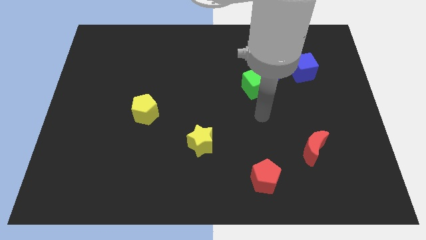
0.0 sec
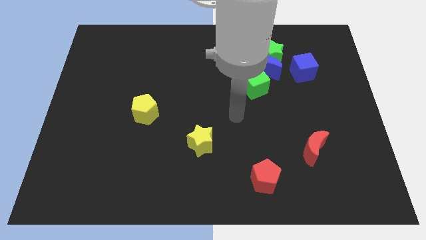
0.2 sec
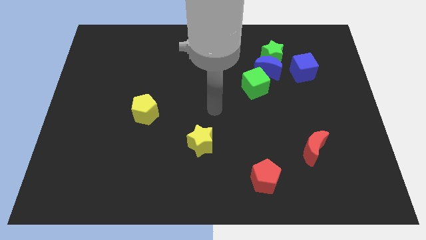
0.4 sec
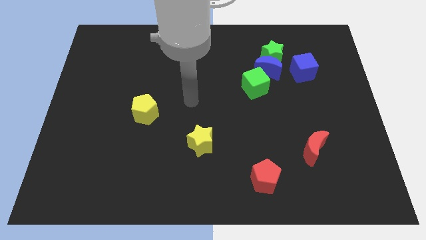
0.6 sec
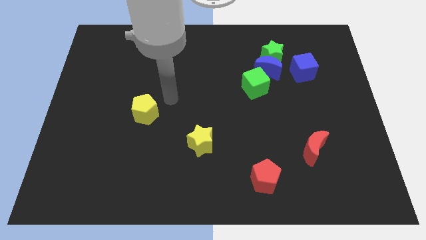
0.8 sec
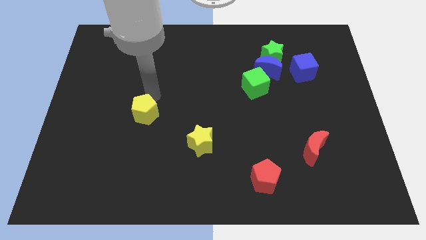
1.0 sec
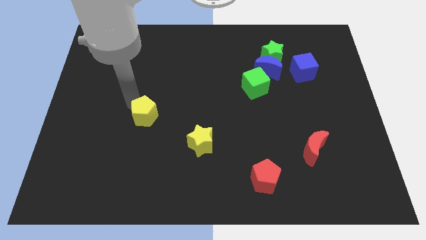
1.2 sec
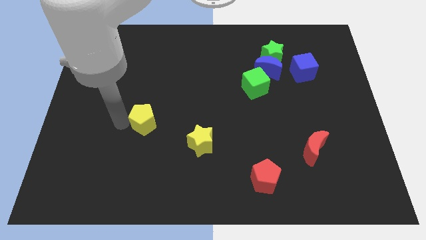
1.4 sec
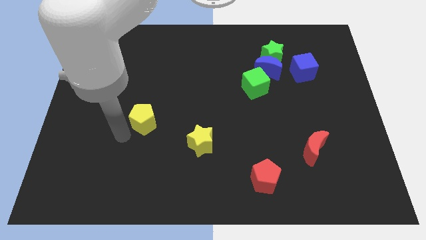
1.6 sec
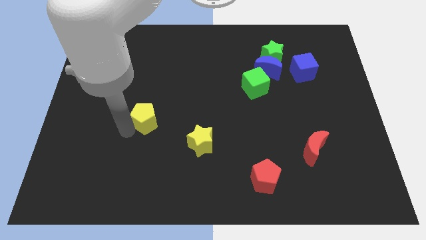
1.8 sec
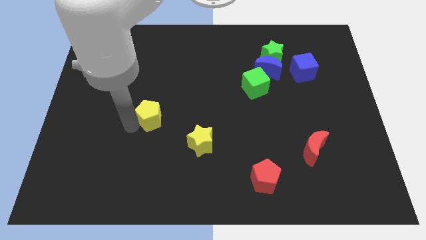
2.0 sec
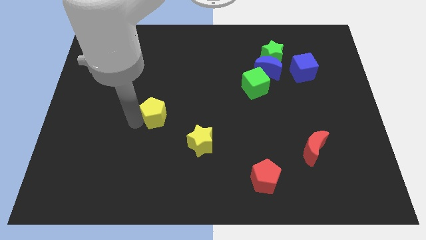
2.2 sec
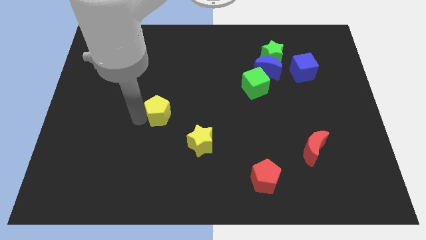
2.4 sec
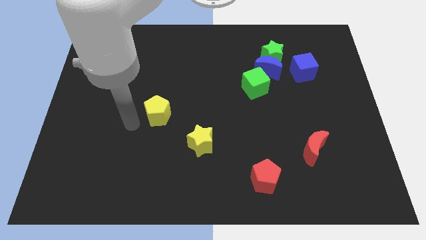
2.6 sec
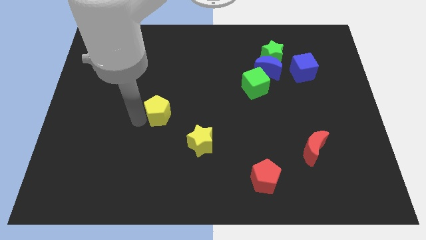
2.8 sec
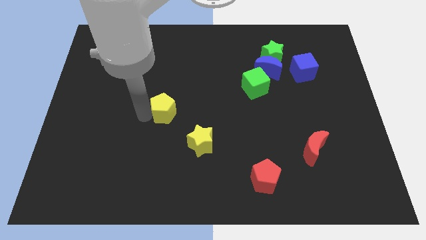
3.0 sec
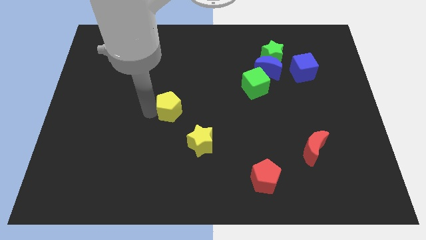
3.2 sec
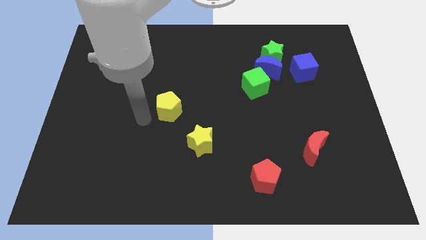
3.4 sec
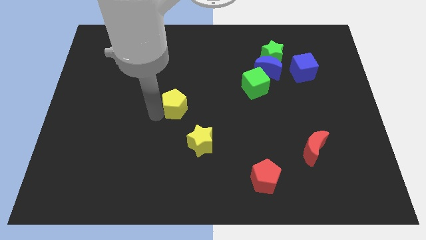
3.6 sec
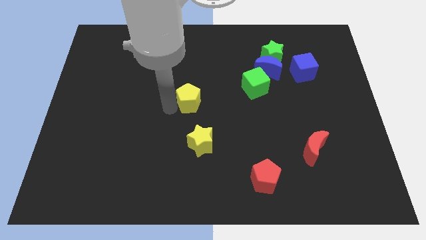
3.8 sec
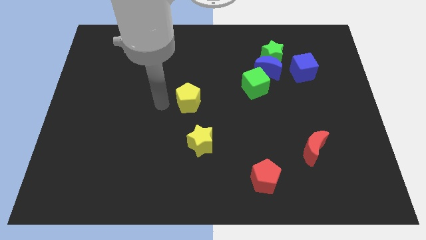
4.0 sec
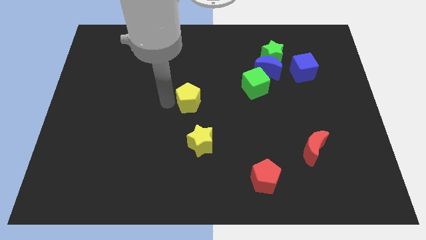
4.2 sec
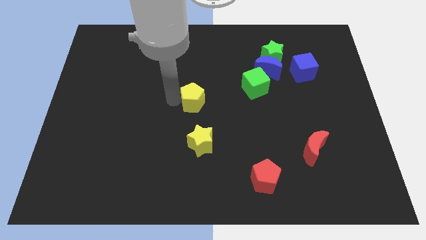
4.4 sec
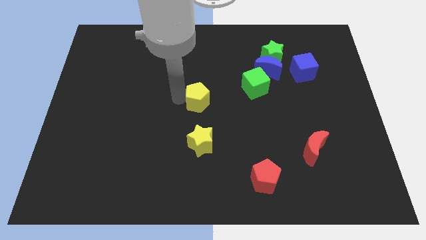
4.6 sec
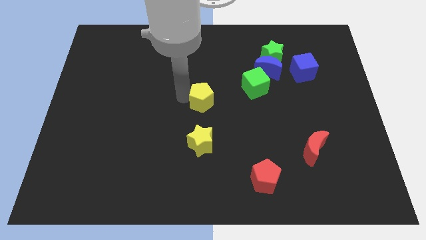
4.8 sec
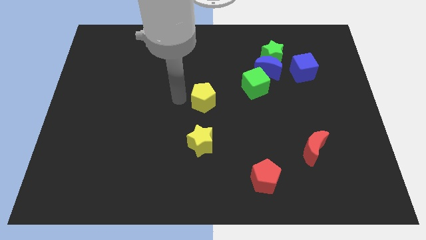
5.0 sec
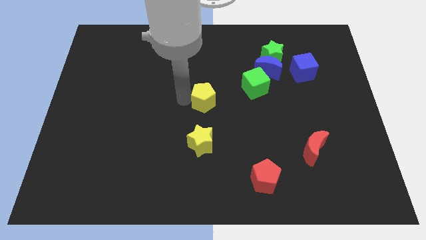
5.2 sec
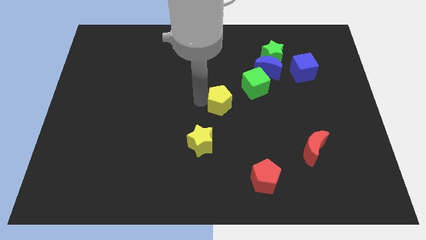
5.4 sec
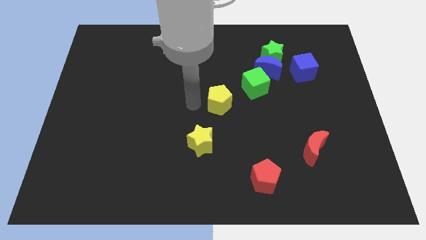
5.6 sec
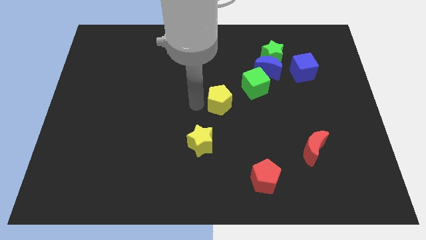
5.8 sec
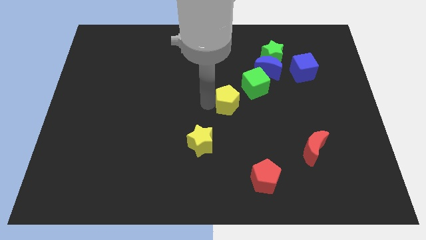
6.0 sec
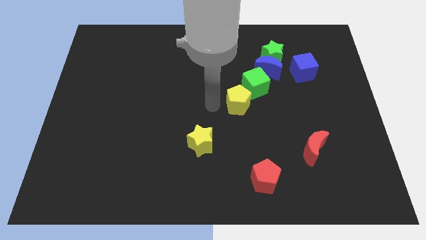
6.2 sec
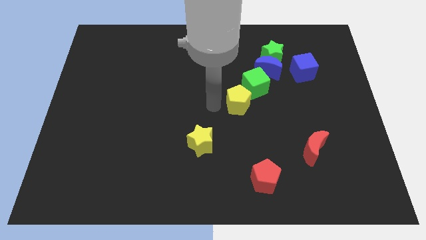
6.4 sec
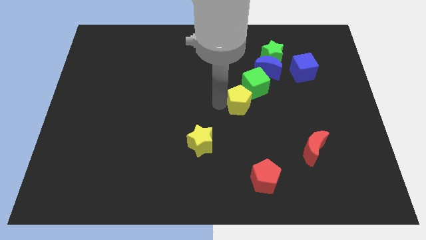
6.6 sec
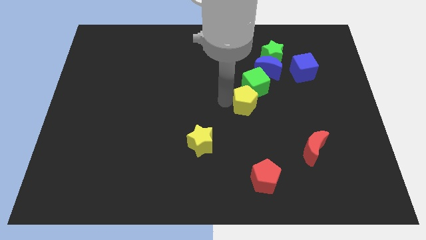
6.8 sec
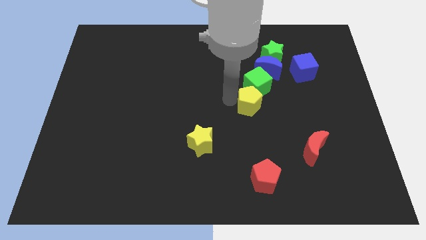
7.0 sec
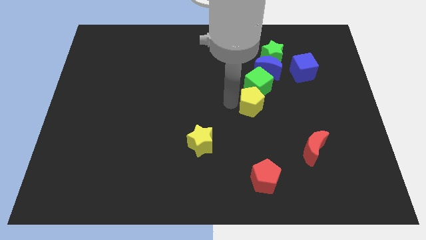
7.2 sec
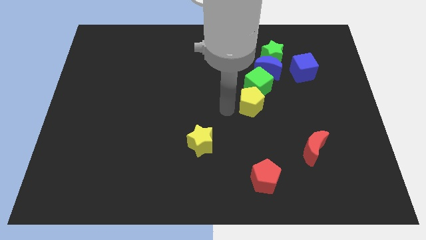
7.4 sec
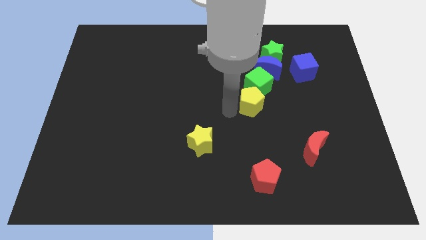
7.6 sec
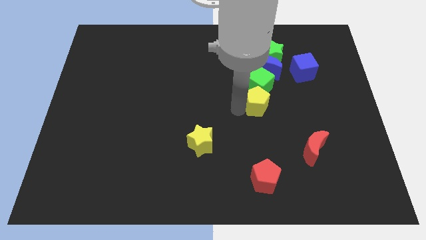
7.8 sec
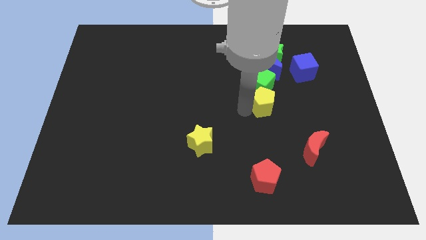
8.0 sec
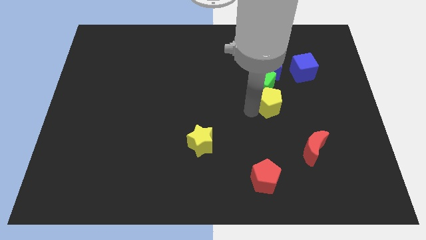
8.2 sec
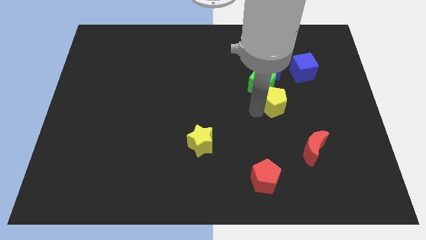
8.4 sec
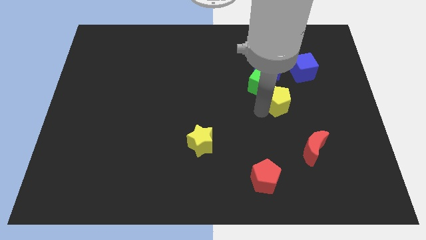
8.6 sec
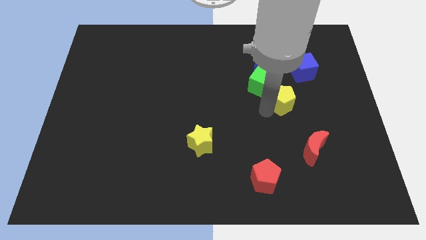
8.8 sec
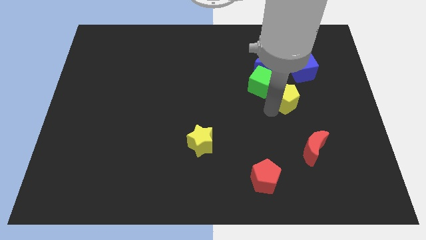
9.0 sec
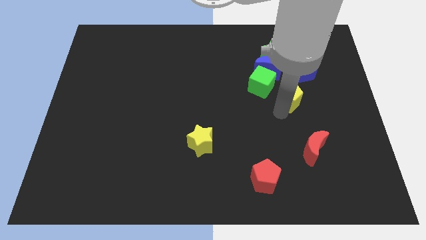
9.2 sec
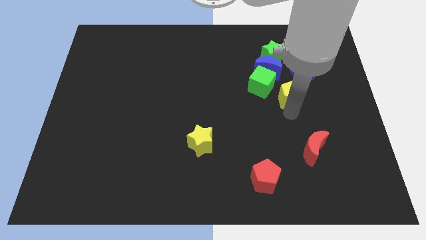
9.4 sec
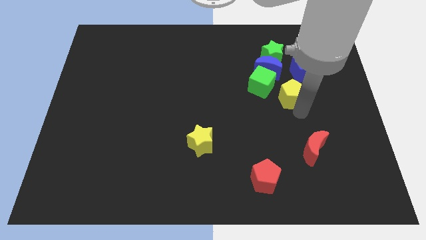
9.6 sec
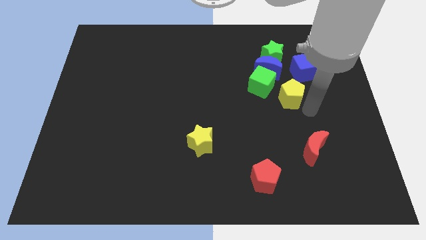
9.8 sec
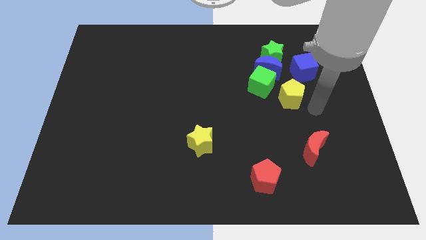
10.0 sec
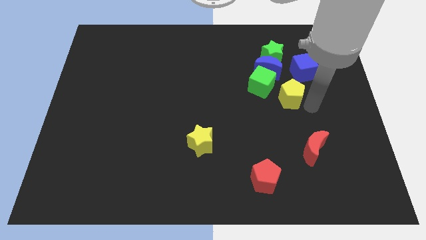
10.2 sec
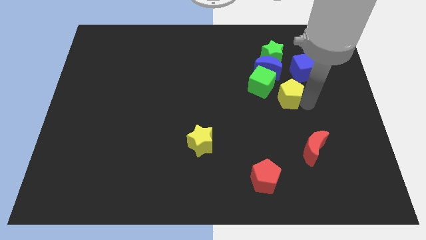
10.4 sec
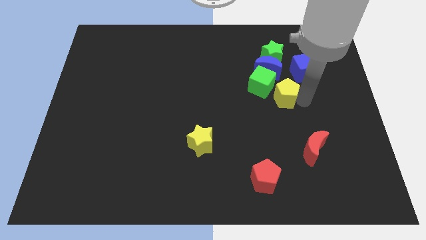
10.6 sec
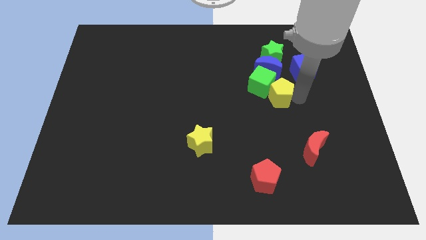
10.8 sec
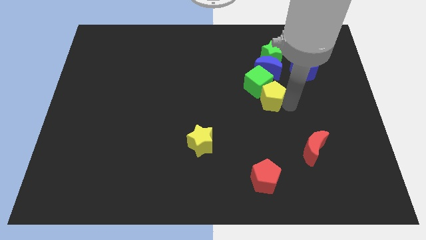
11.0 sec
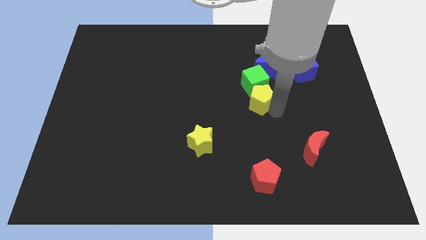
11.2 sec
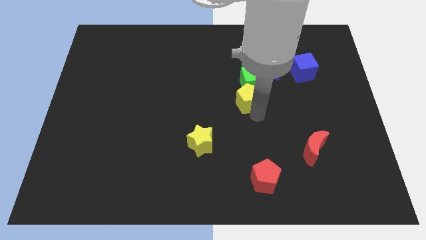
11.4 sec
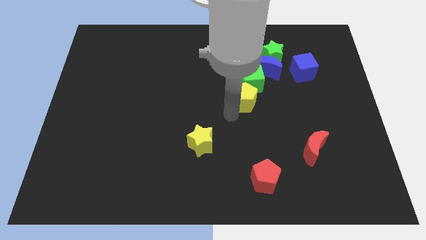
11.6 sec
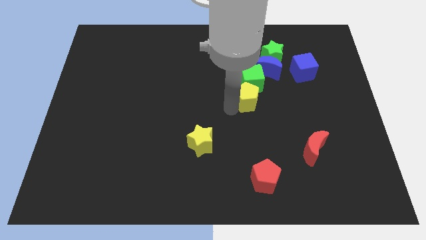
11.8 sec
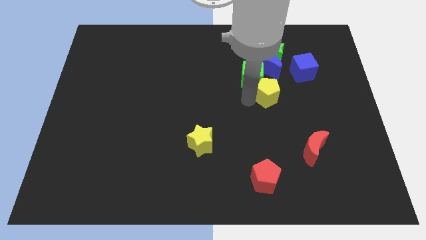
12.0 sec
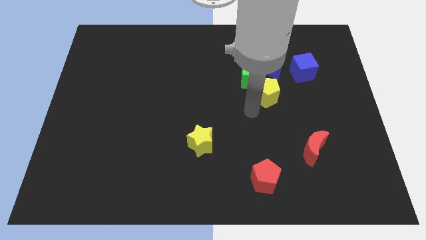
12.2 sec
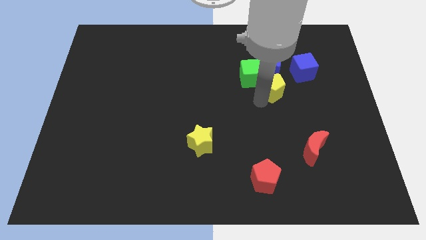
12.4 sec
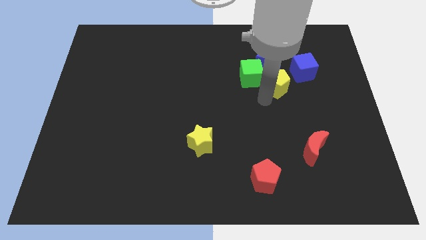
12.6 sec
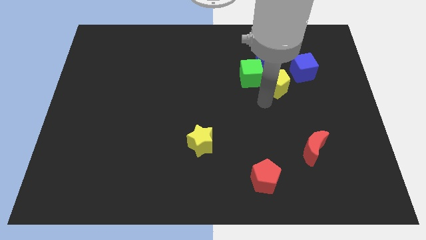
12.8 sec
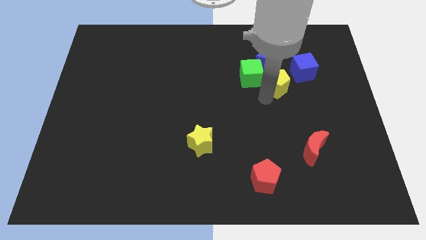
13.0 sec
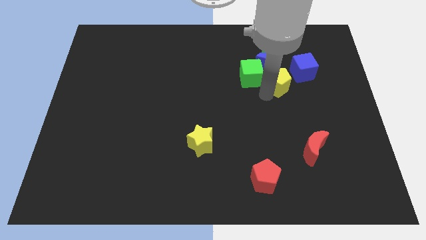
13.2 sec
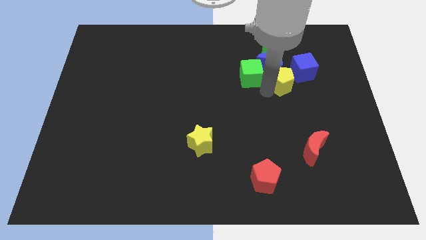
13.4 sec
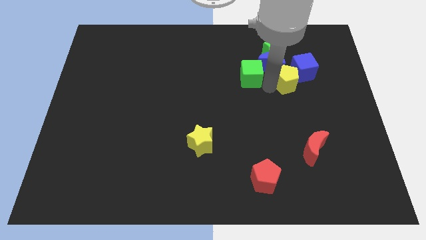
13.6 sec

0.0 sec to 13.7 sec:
put the yellow pentagon to the blue cube
